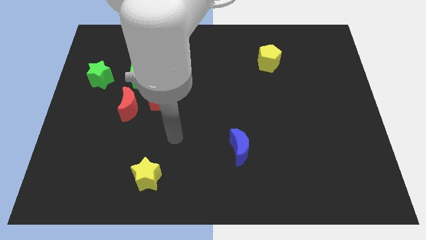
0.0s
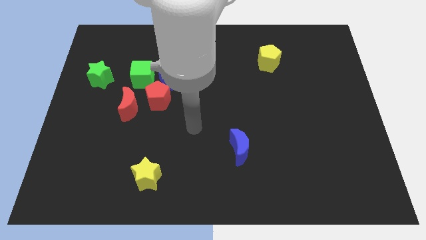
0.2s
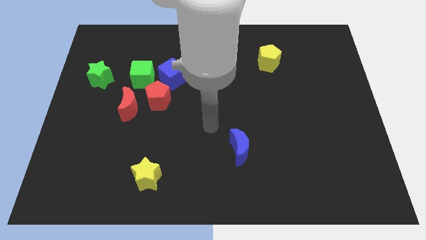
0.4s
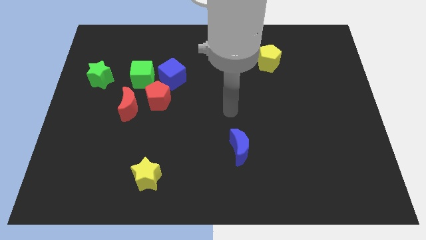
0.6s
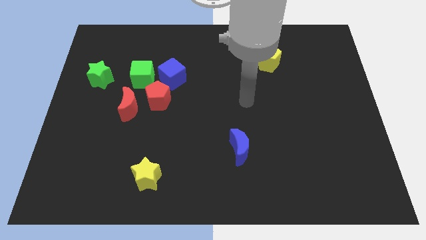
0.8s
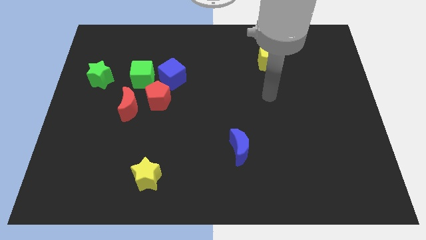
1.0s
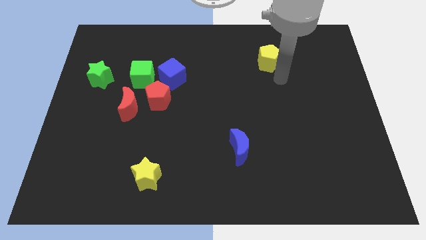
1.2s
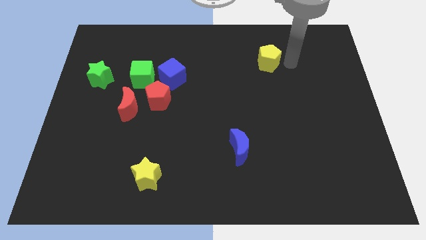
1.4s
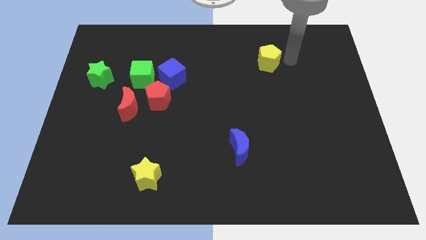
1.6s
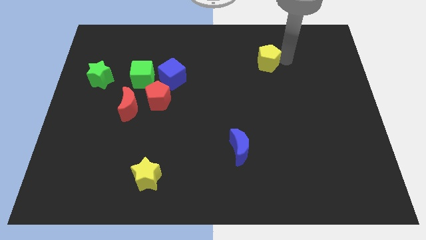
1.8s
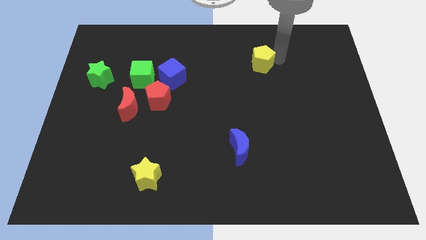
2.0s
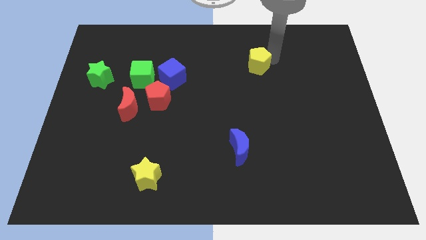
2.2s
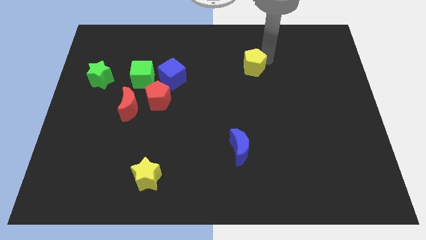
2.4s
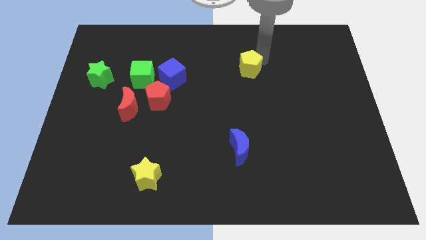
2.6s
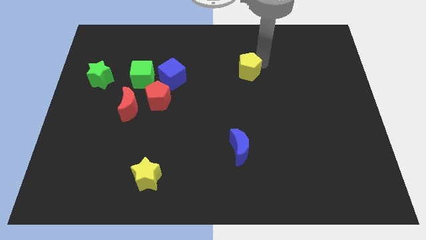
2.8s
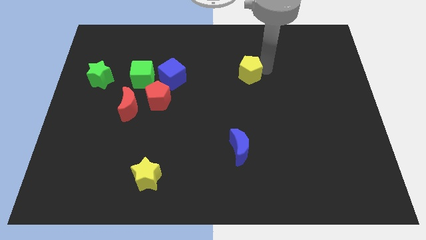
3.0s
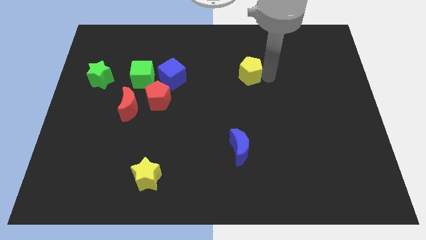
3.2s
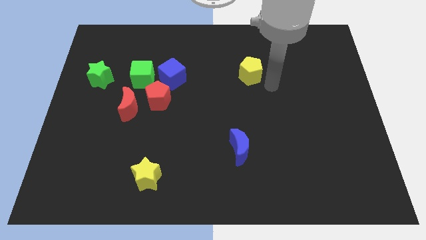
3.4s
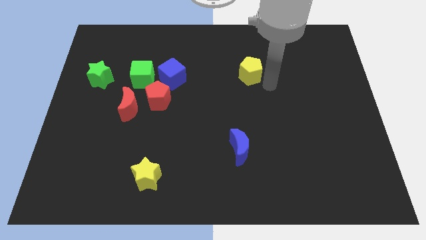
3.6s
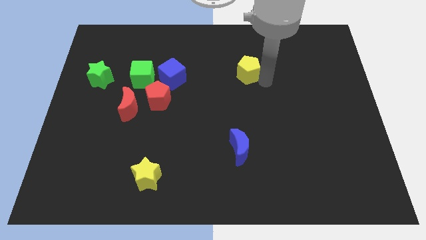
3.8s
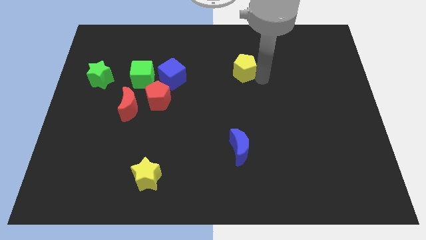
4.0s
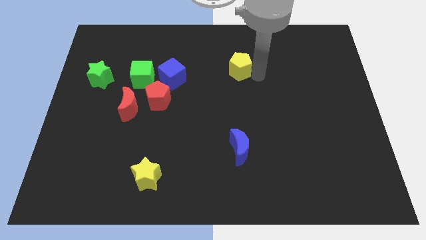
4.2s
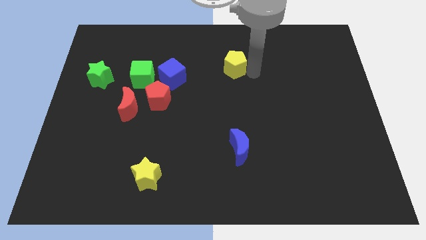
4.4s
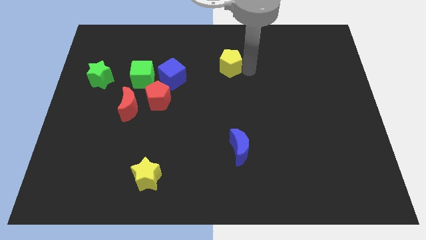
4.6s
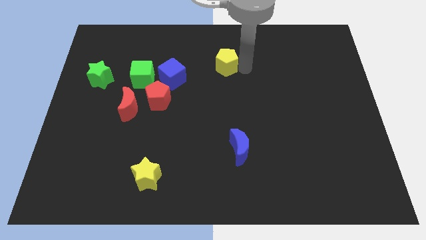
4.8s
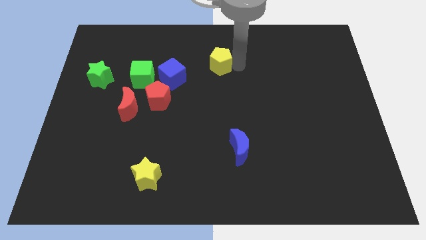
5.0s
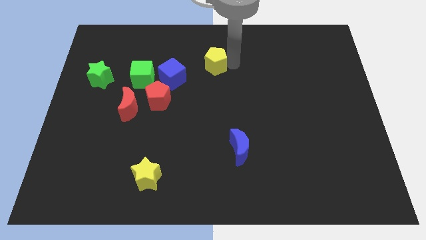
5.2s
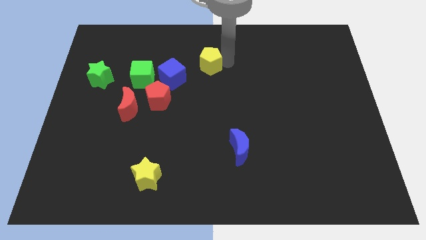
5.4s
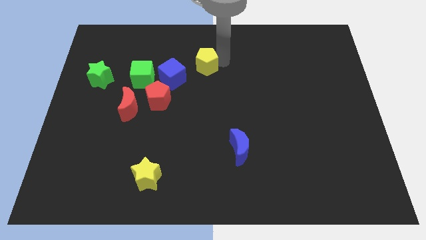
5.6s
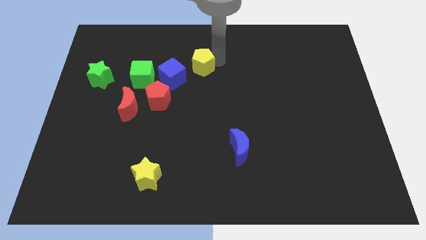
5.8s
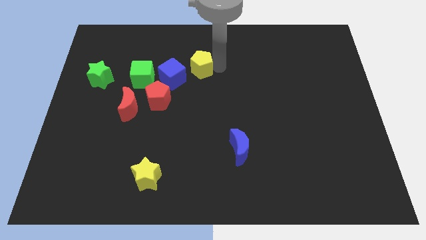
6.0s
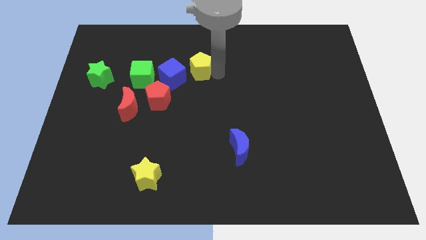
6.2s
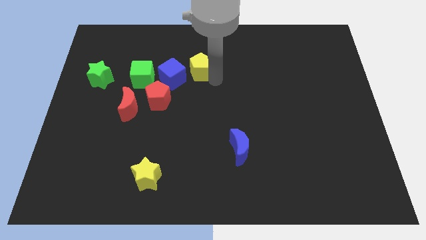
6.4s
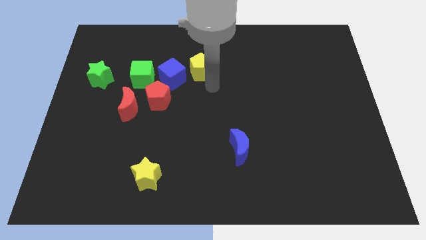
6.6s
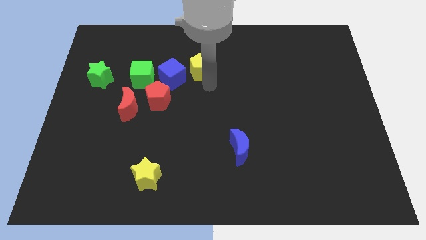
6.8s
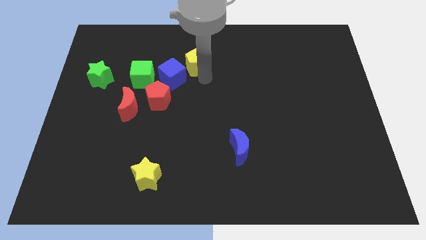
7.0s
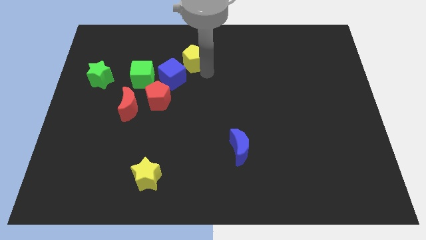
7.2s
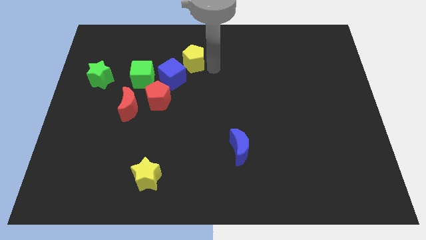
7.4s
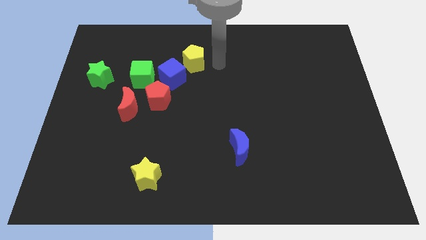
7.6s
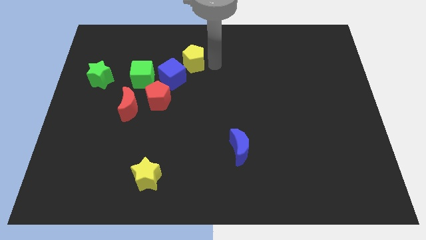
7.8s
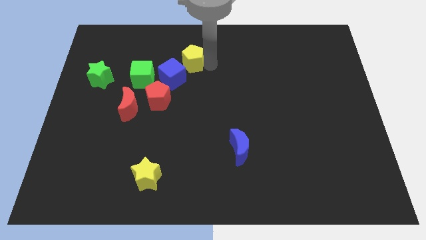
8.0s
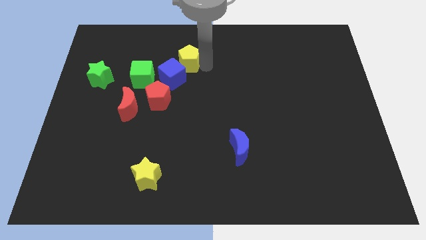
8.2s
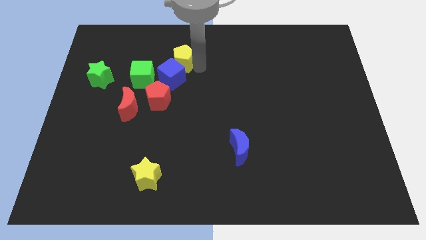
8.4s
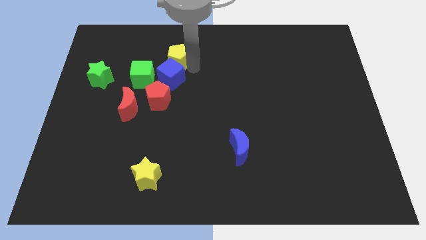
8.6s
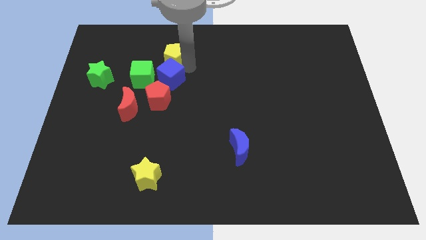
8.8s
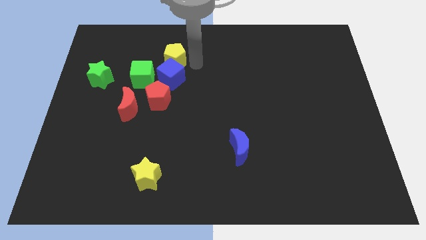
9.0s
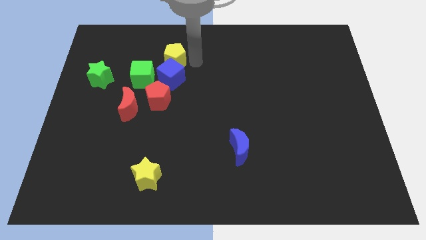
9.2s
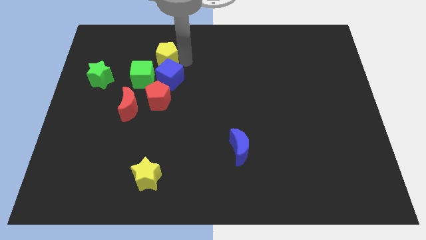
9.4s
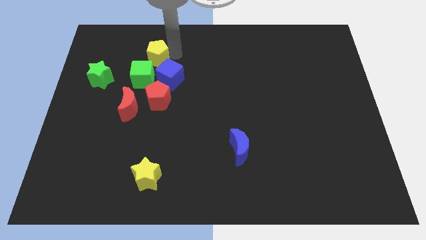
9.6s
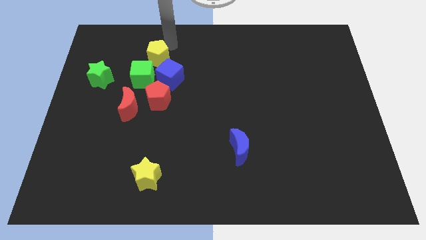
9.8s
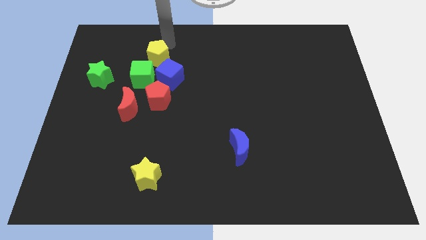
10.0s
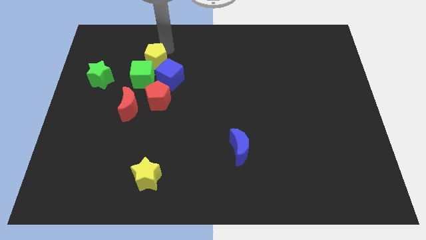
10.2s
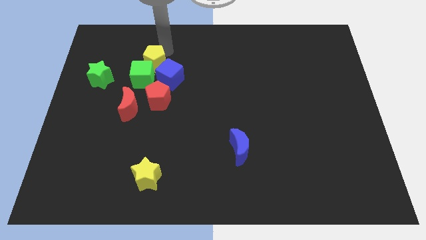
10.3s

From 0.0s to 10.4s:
move the yellow pentagon close to the green cube

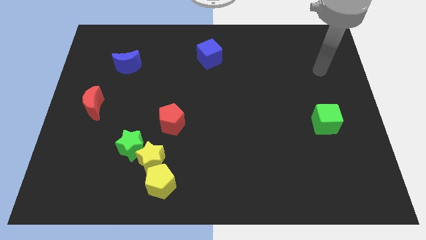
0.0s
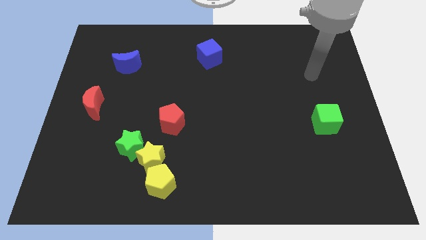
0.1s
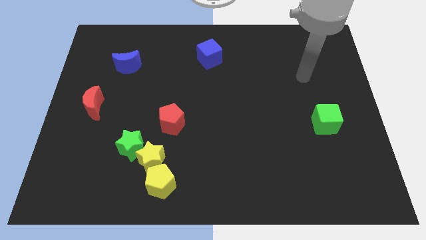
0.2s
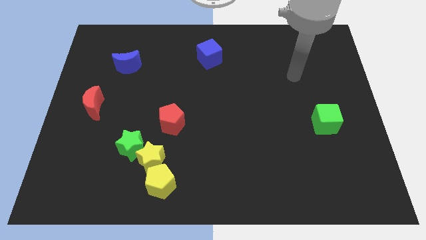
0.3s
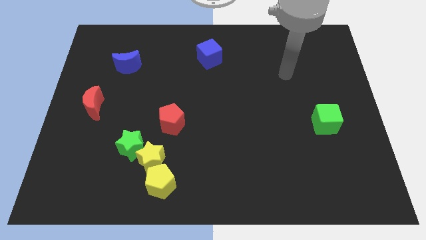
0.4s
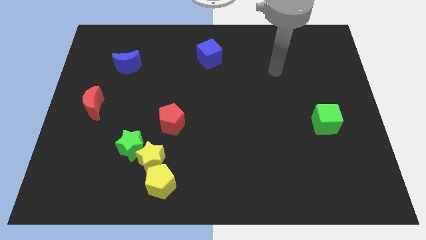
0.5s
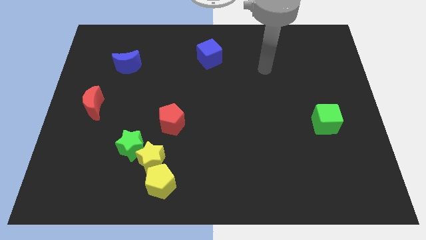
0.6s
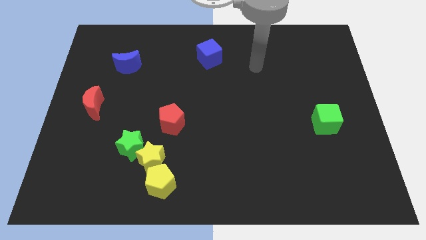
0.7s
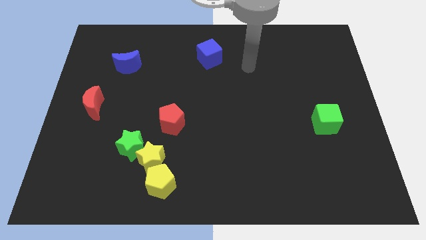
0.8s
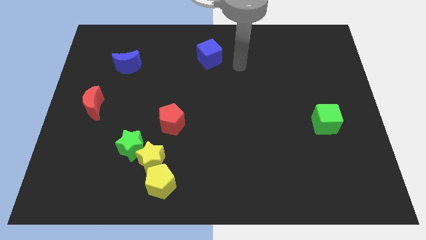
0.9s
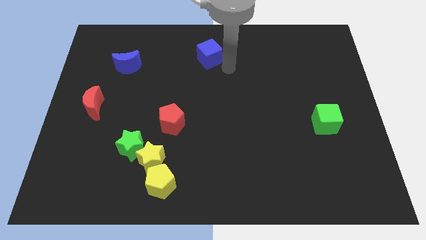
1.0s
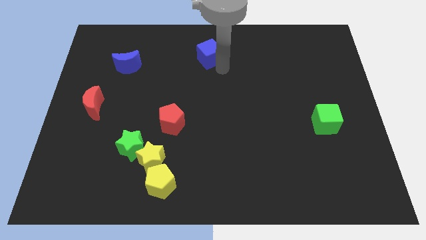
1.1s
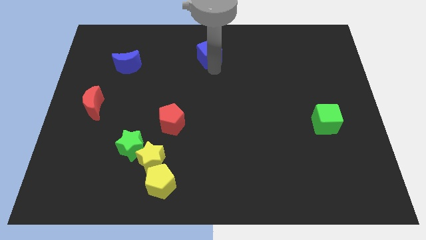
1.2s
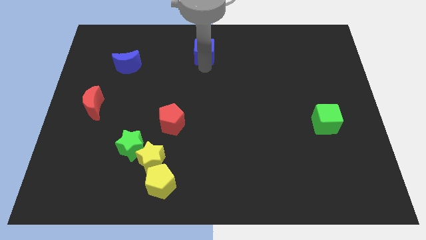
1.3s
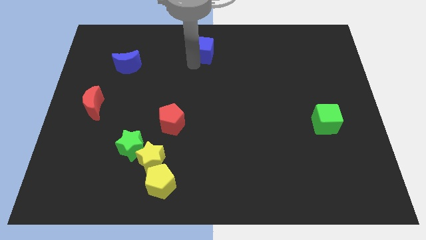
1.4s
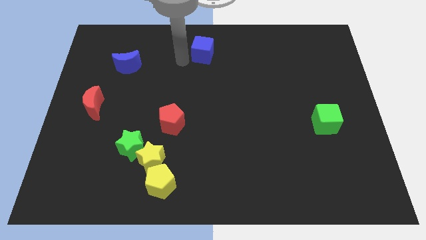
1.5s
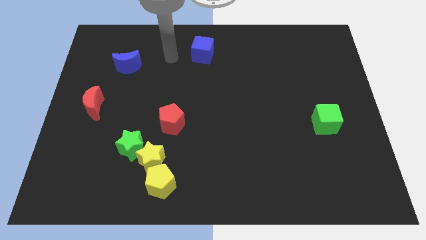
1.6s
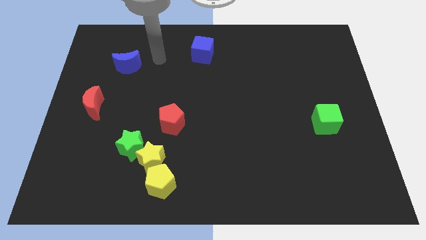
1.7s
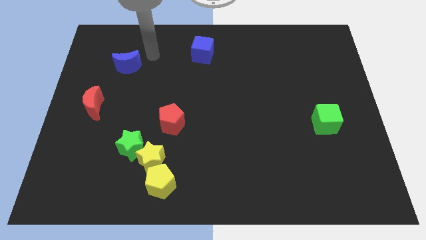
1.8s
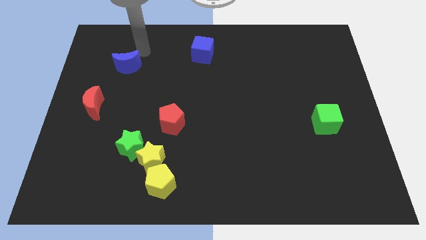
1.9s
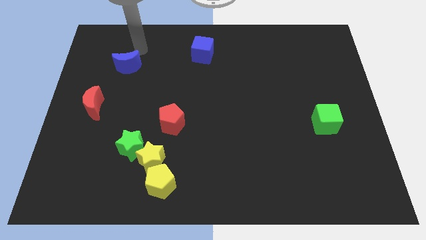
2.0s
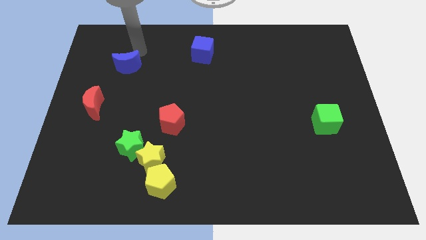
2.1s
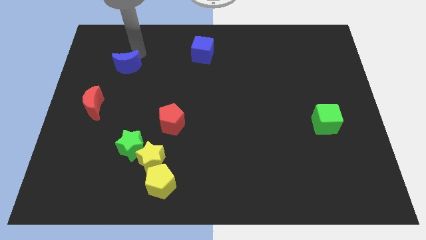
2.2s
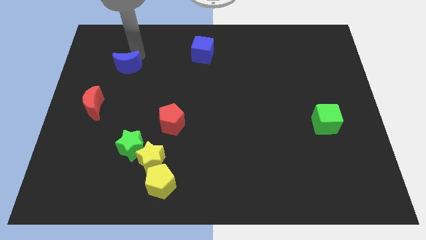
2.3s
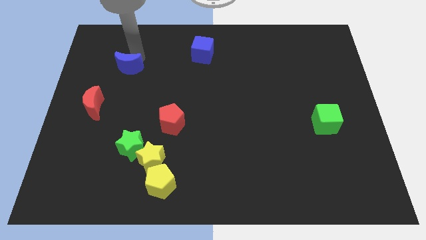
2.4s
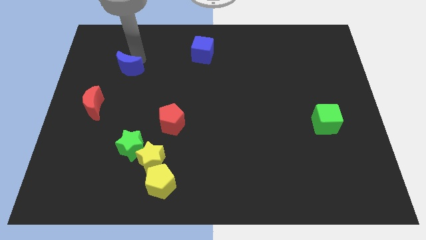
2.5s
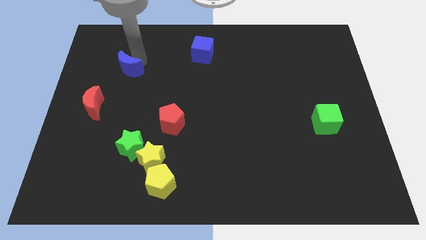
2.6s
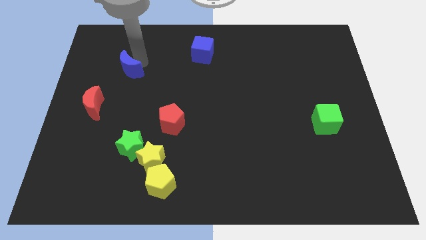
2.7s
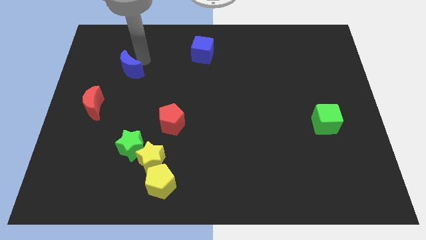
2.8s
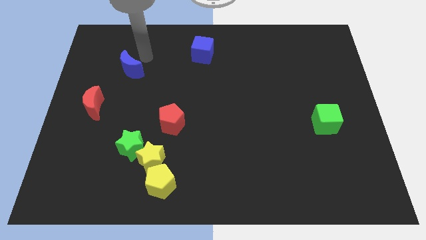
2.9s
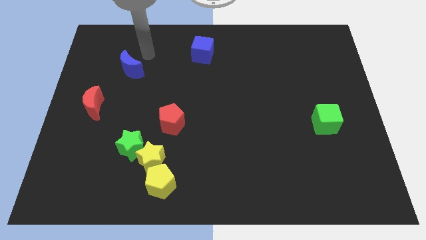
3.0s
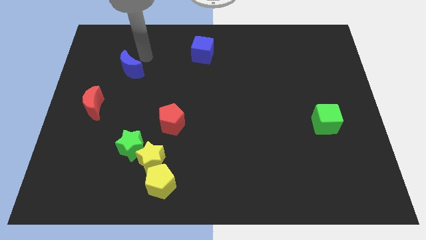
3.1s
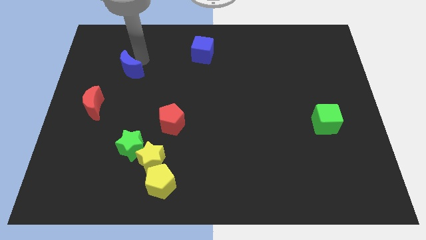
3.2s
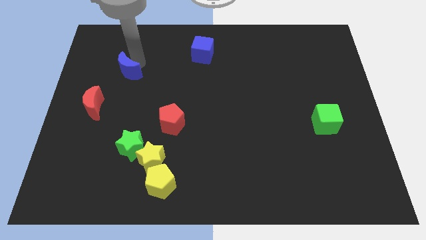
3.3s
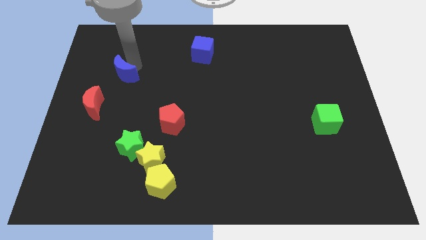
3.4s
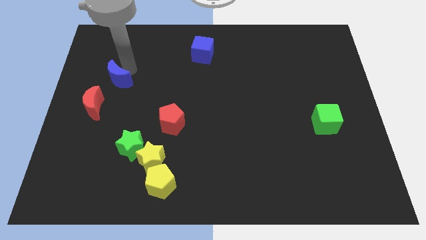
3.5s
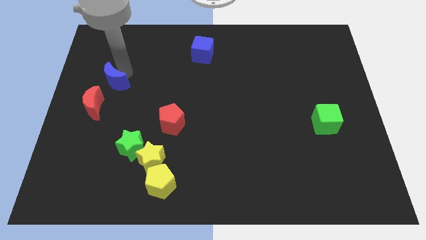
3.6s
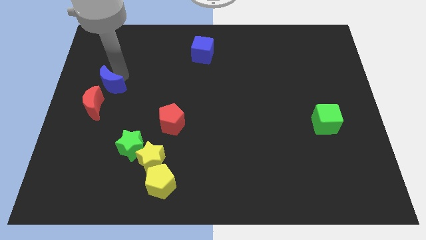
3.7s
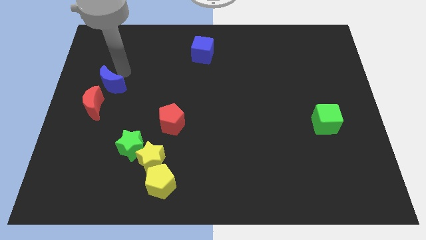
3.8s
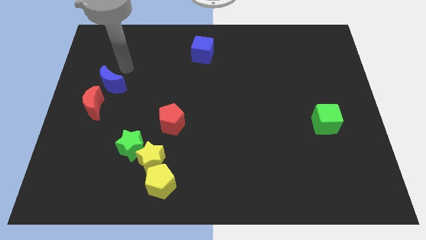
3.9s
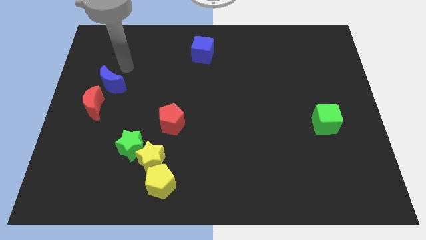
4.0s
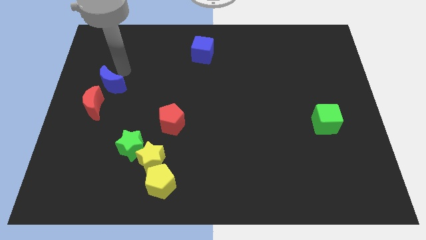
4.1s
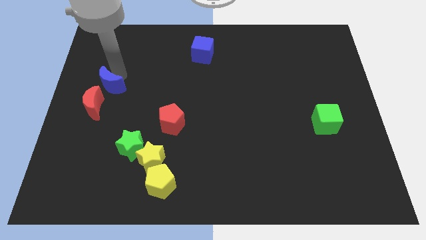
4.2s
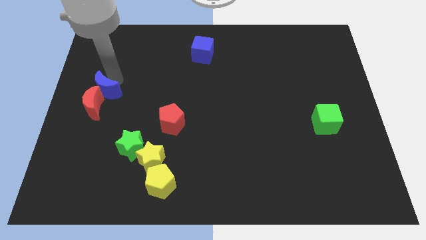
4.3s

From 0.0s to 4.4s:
slide the blue moon close to the red moon
